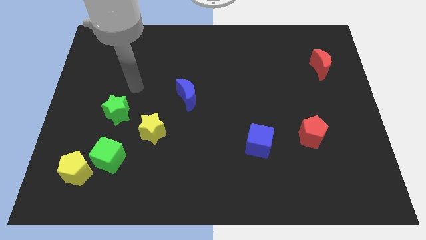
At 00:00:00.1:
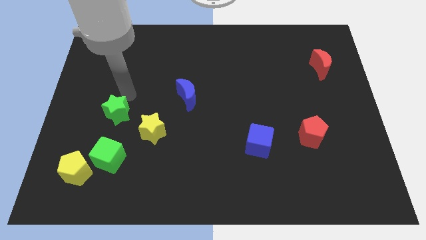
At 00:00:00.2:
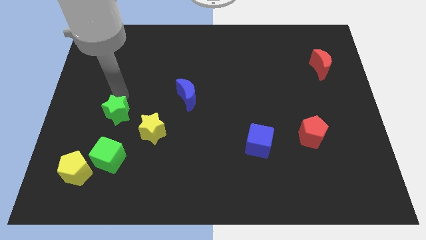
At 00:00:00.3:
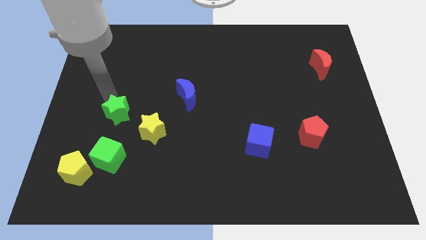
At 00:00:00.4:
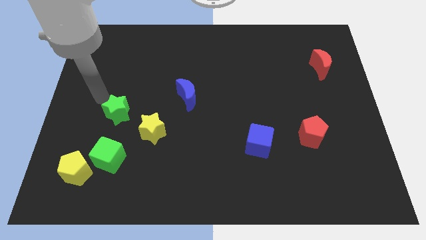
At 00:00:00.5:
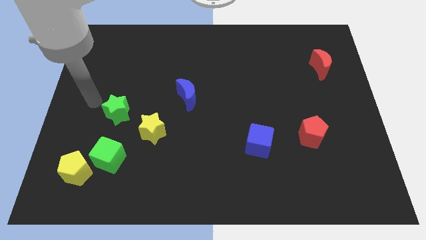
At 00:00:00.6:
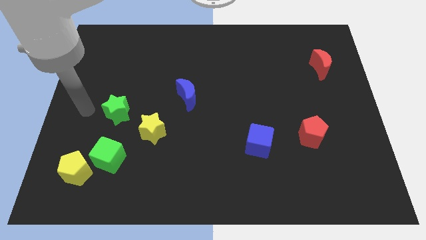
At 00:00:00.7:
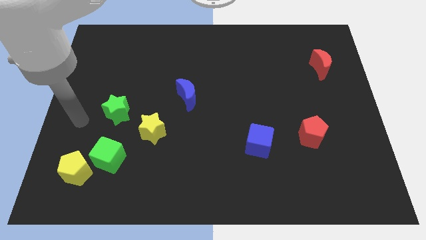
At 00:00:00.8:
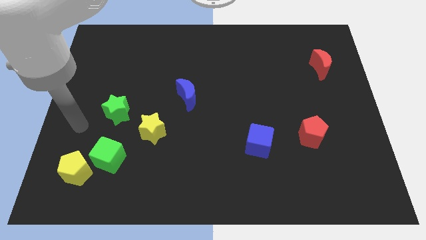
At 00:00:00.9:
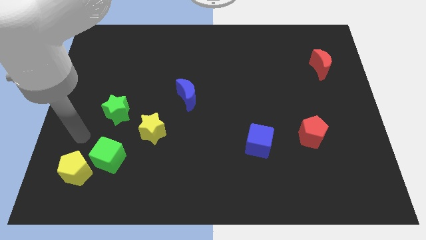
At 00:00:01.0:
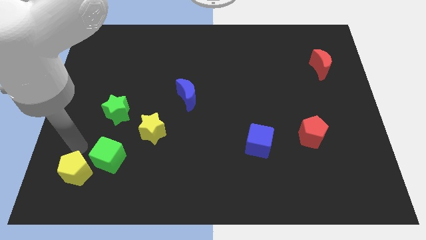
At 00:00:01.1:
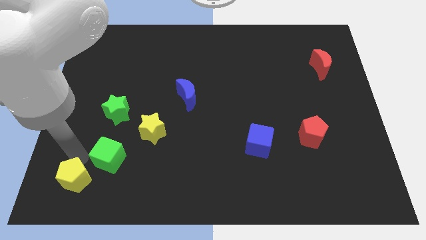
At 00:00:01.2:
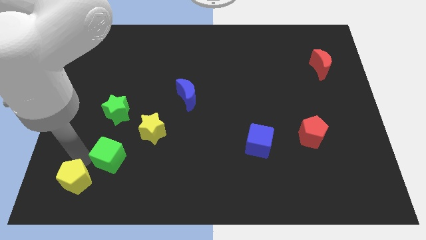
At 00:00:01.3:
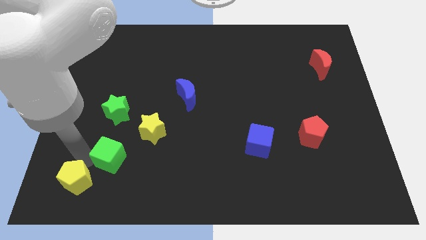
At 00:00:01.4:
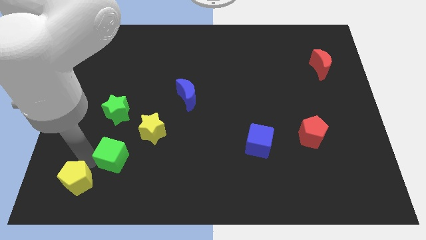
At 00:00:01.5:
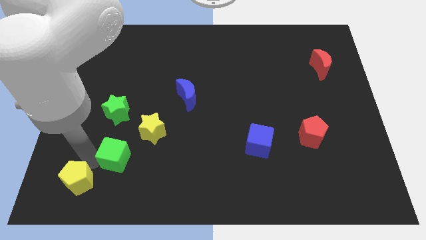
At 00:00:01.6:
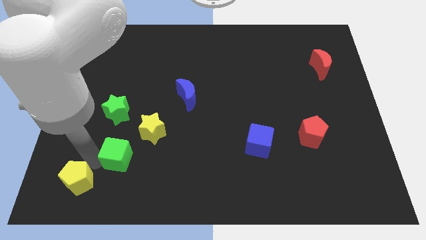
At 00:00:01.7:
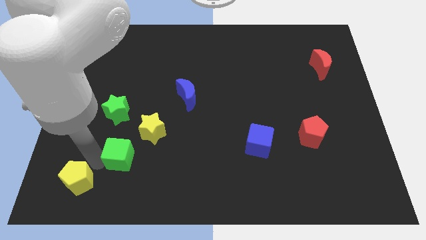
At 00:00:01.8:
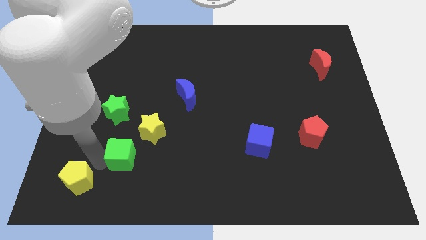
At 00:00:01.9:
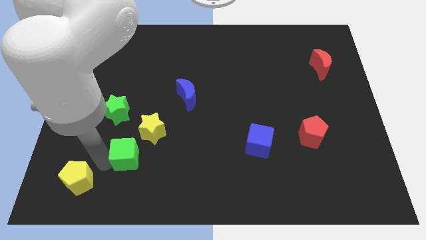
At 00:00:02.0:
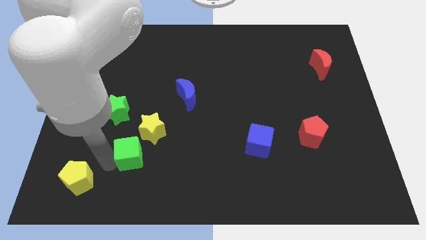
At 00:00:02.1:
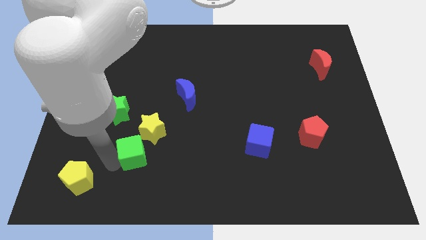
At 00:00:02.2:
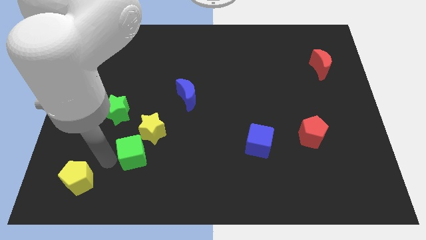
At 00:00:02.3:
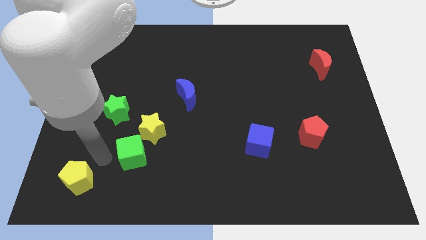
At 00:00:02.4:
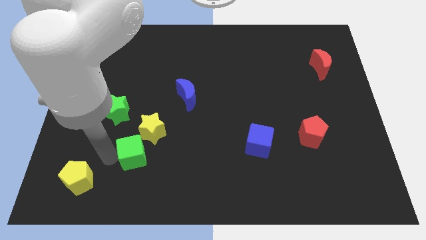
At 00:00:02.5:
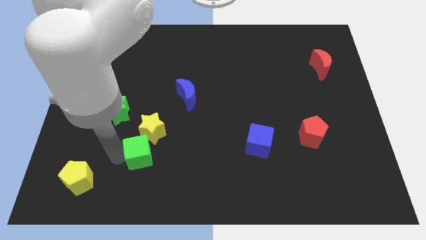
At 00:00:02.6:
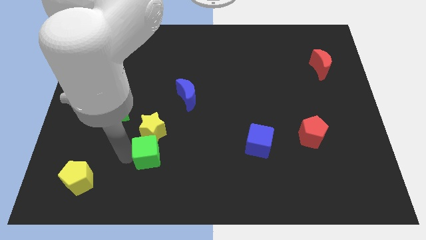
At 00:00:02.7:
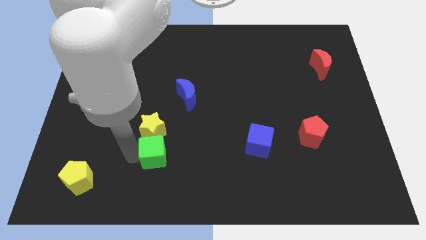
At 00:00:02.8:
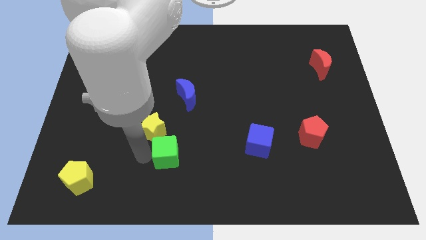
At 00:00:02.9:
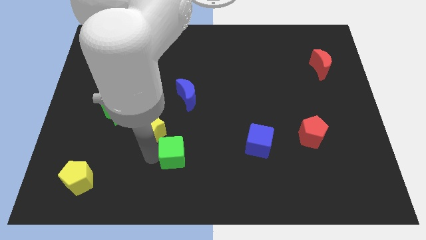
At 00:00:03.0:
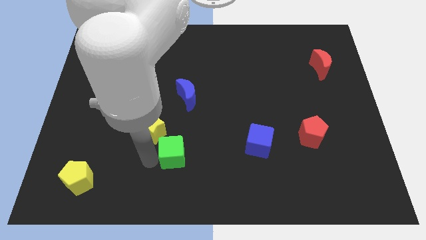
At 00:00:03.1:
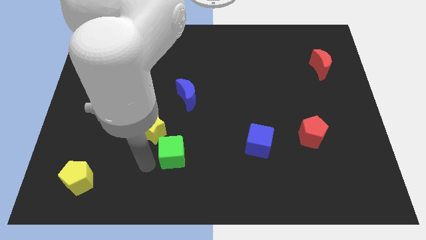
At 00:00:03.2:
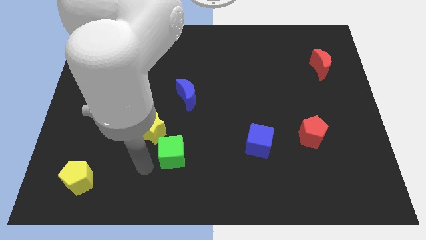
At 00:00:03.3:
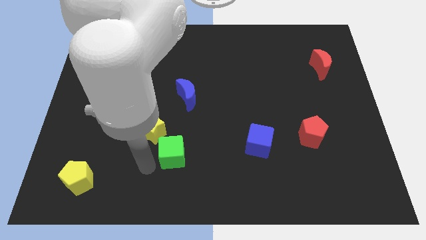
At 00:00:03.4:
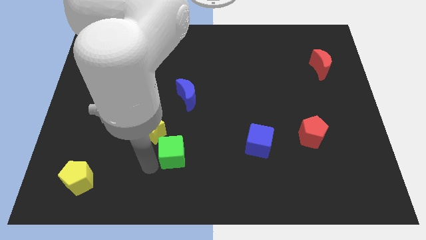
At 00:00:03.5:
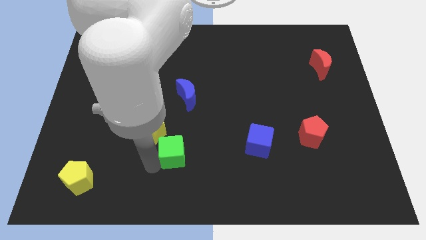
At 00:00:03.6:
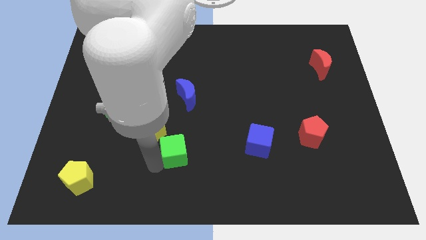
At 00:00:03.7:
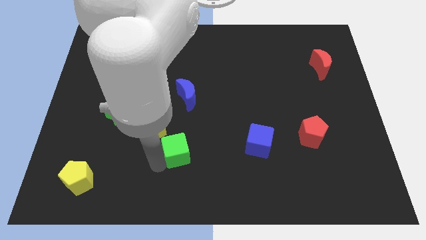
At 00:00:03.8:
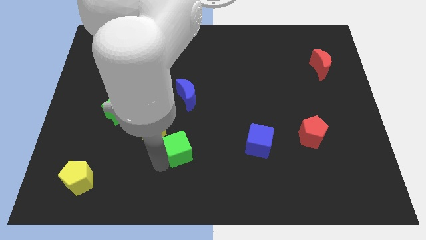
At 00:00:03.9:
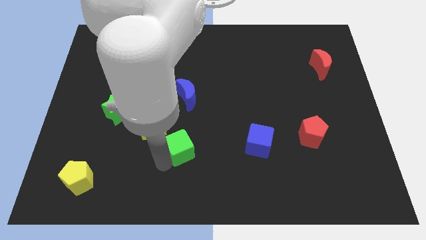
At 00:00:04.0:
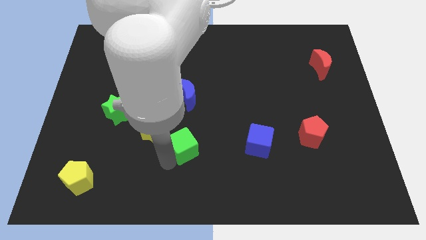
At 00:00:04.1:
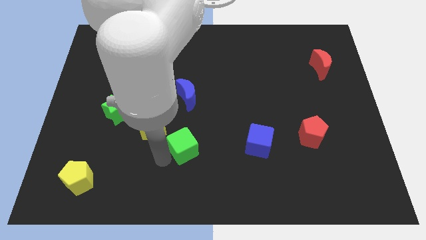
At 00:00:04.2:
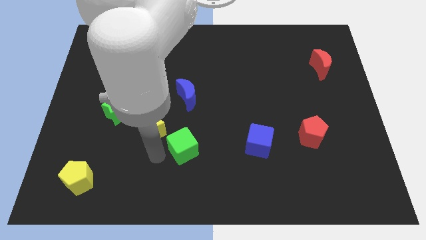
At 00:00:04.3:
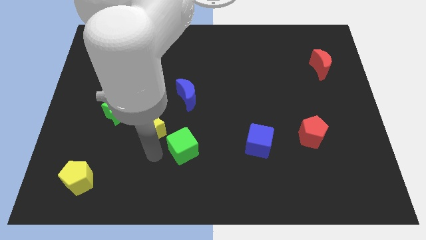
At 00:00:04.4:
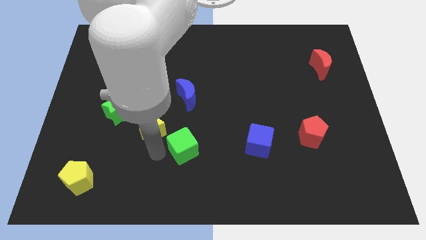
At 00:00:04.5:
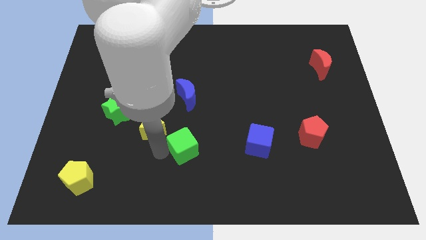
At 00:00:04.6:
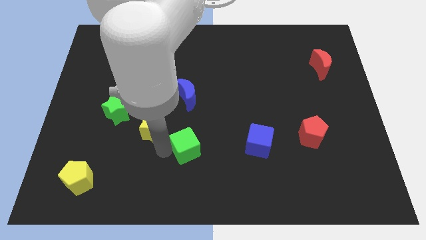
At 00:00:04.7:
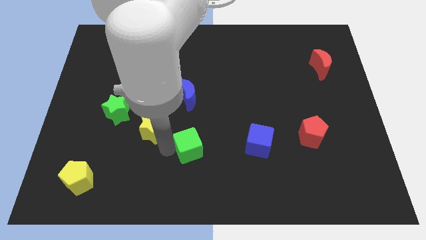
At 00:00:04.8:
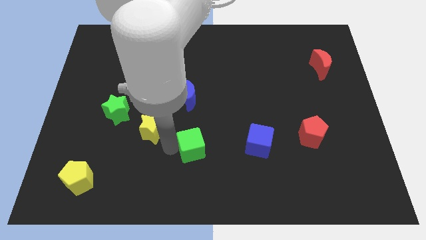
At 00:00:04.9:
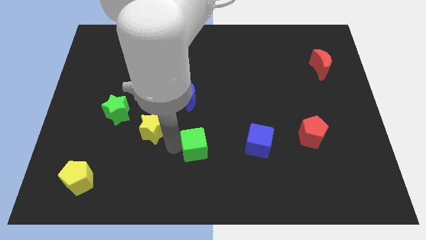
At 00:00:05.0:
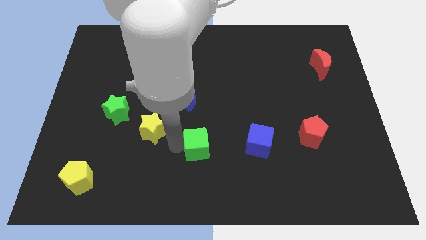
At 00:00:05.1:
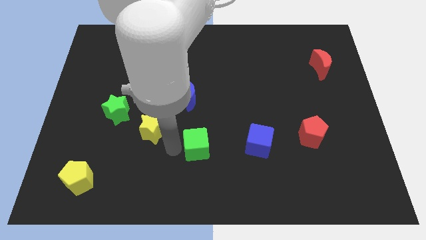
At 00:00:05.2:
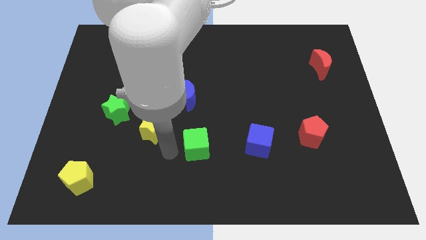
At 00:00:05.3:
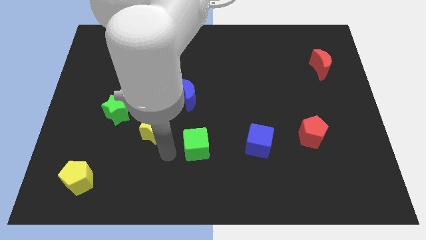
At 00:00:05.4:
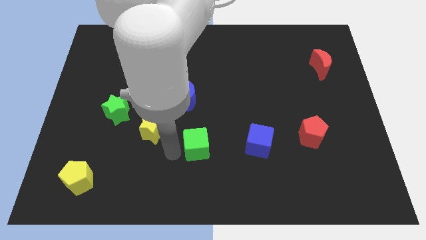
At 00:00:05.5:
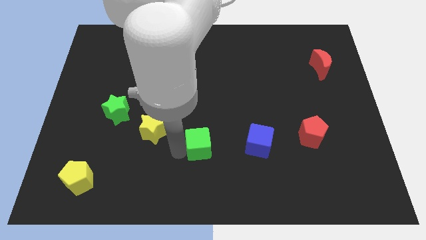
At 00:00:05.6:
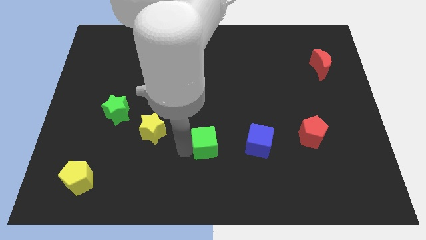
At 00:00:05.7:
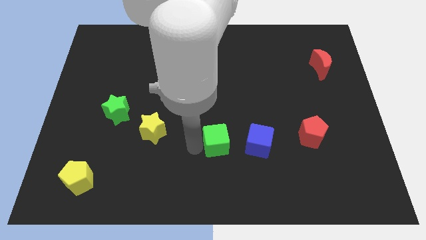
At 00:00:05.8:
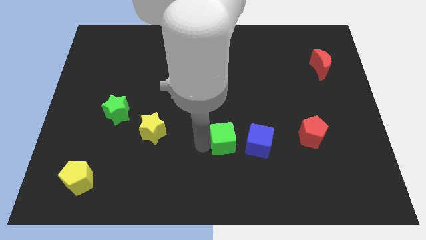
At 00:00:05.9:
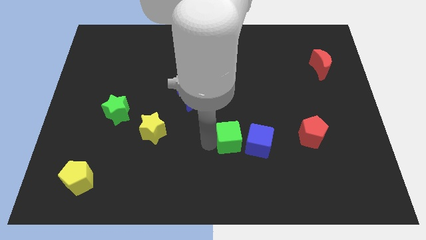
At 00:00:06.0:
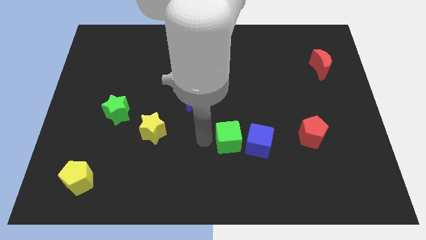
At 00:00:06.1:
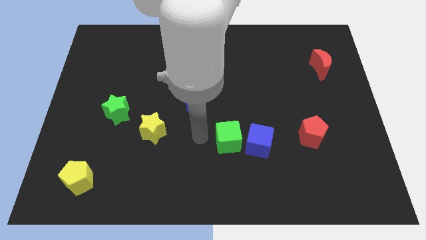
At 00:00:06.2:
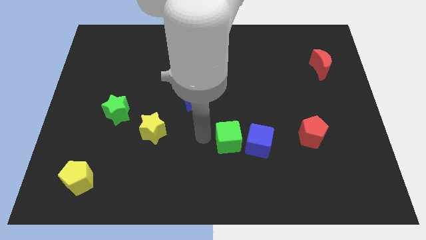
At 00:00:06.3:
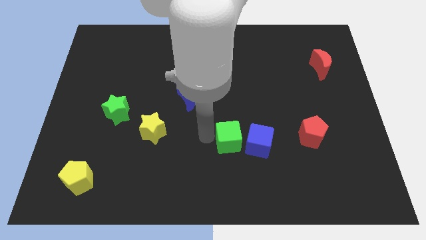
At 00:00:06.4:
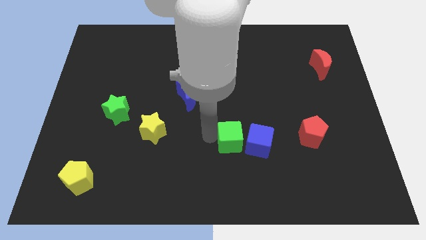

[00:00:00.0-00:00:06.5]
slide the green cube to the blue cube
